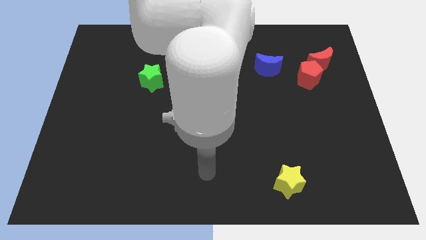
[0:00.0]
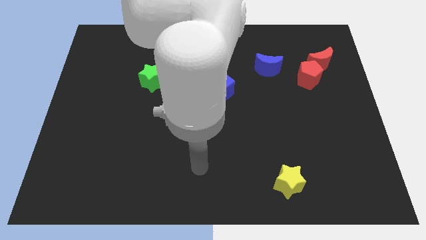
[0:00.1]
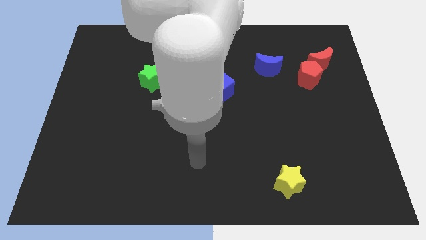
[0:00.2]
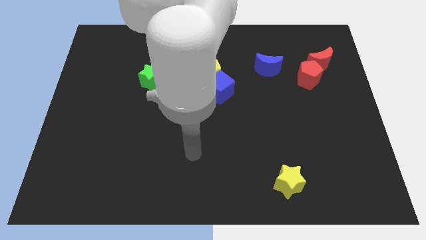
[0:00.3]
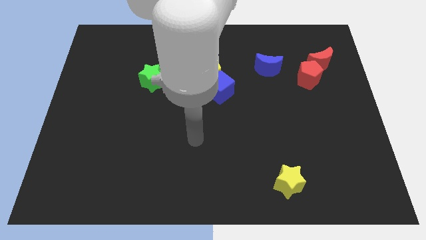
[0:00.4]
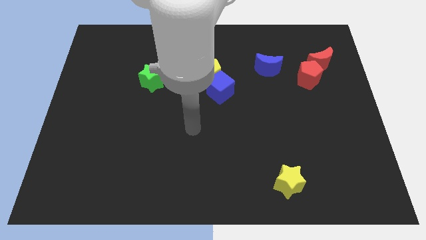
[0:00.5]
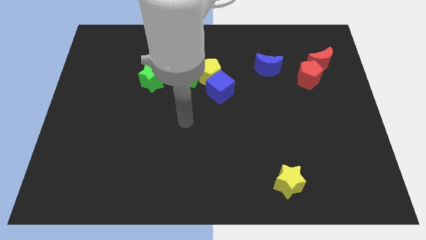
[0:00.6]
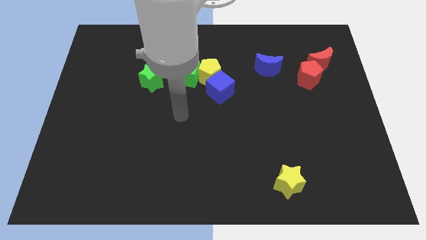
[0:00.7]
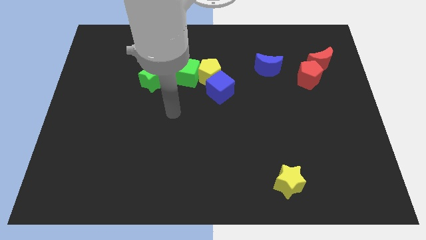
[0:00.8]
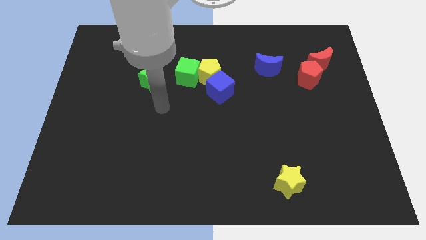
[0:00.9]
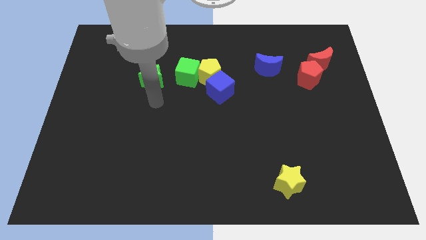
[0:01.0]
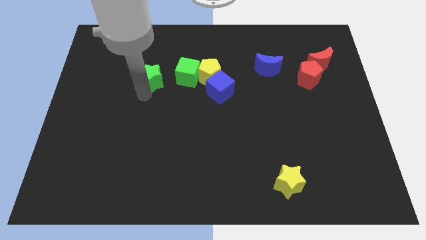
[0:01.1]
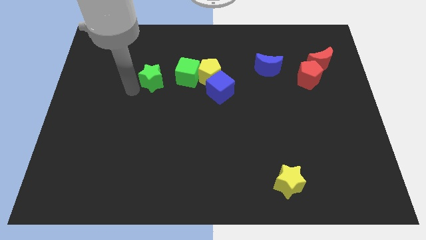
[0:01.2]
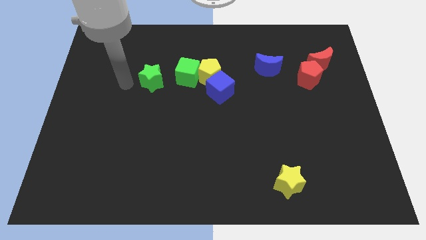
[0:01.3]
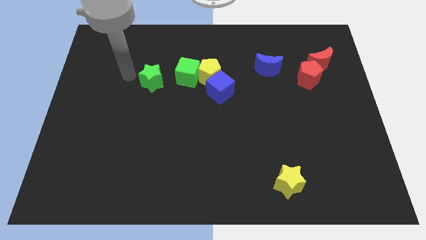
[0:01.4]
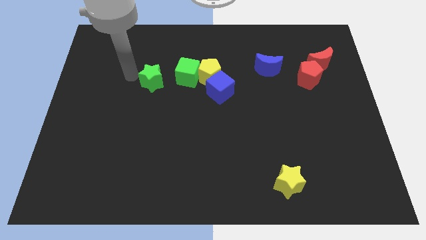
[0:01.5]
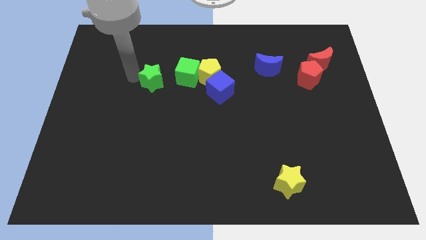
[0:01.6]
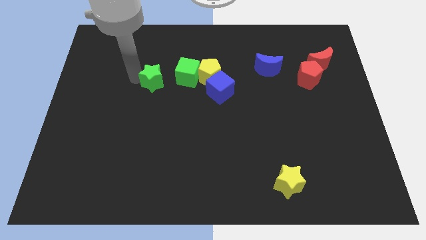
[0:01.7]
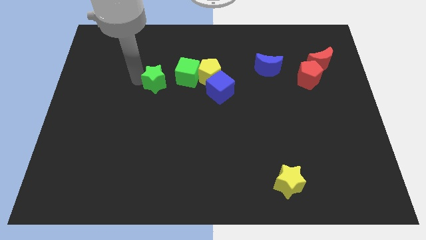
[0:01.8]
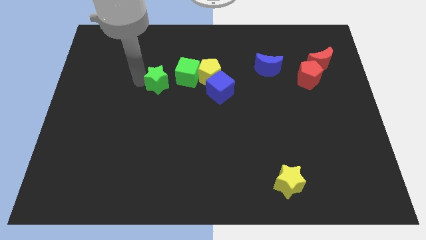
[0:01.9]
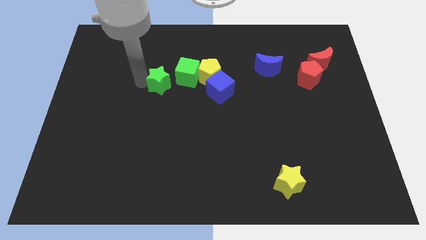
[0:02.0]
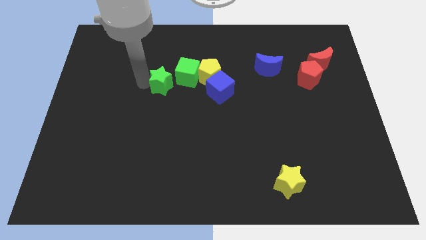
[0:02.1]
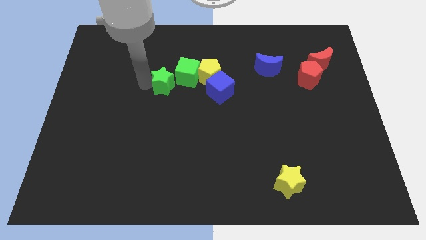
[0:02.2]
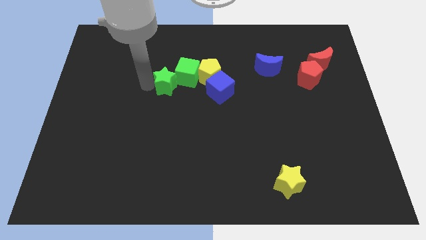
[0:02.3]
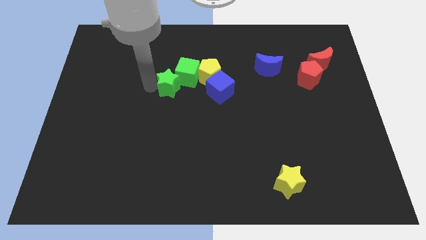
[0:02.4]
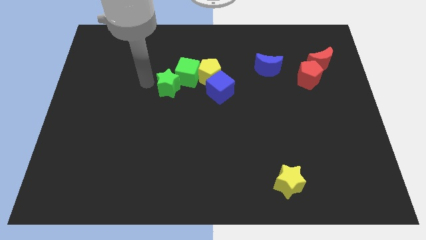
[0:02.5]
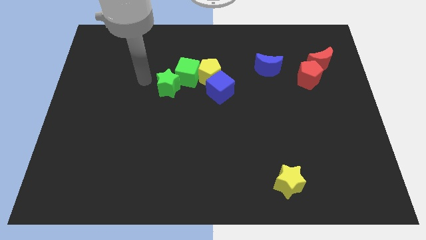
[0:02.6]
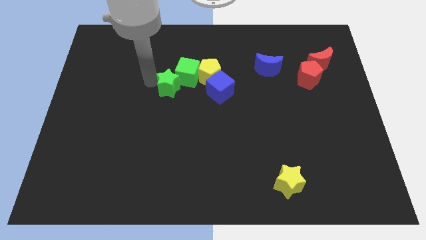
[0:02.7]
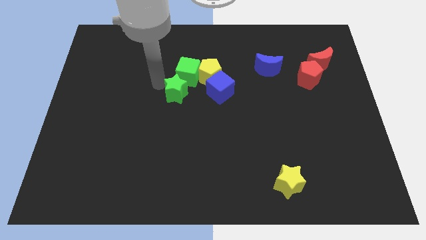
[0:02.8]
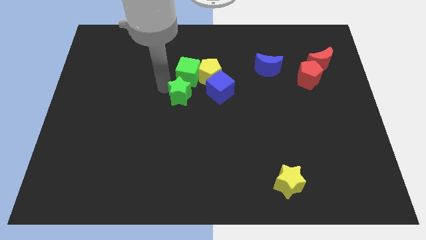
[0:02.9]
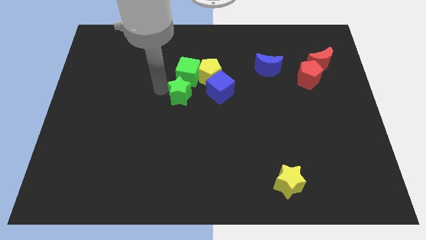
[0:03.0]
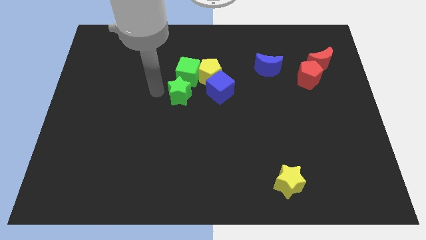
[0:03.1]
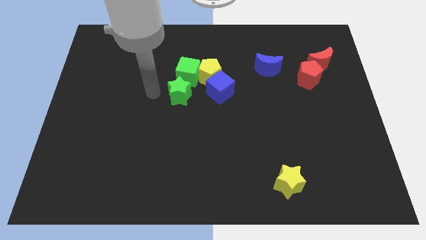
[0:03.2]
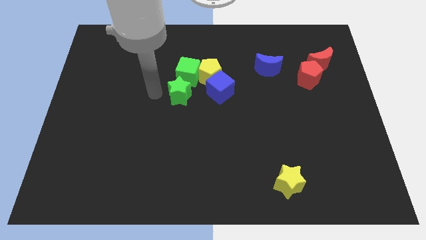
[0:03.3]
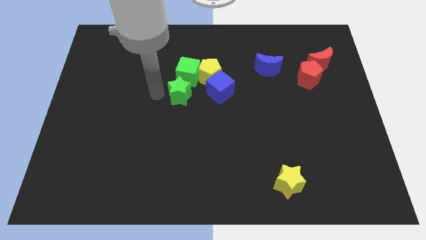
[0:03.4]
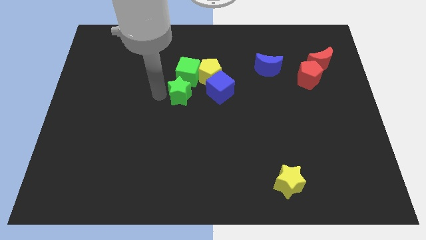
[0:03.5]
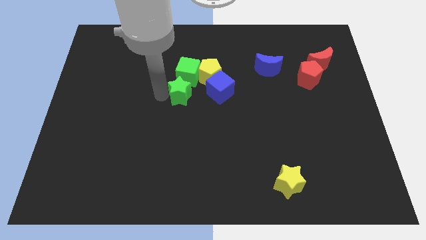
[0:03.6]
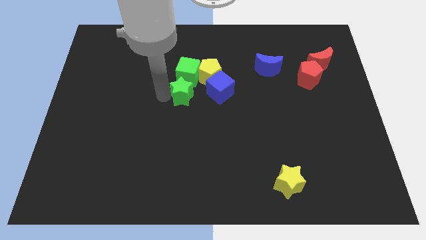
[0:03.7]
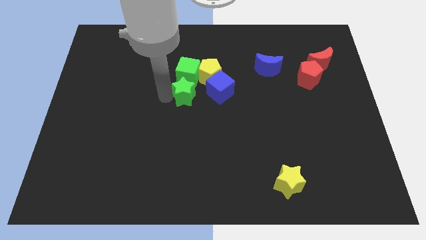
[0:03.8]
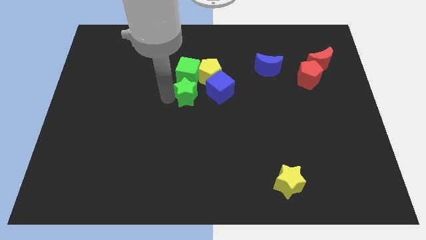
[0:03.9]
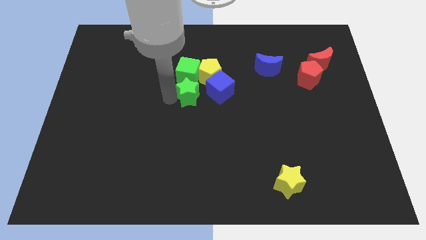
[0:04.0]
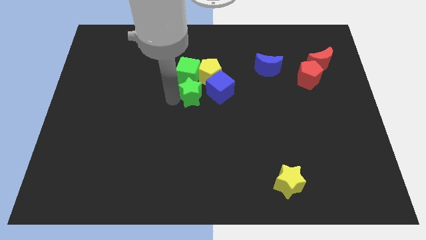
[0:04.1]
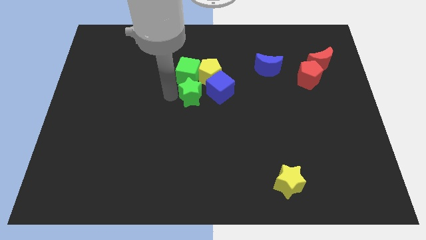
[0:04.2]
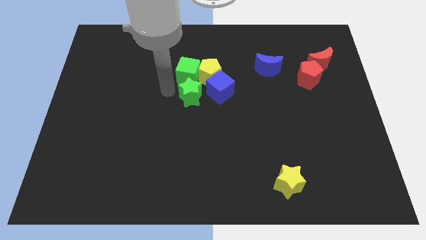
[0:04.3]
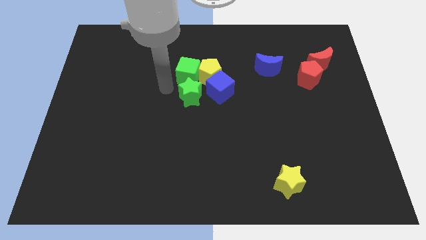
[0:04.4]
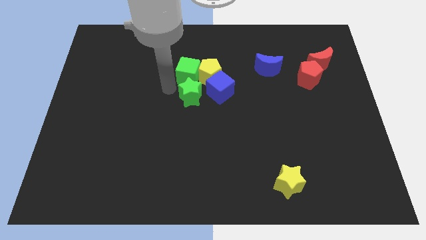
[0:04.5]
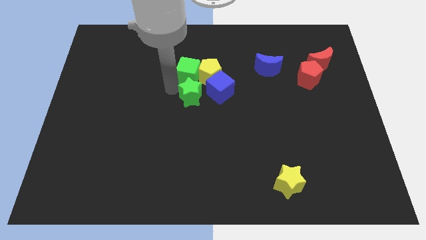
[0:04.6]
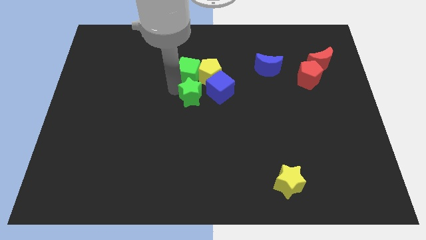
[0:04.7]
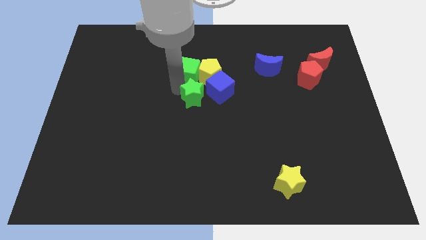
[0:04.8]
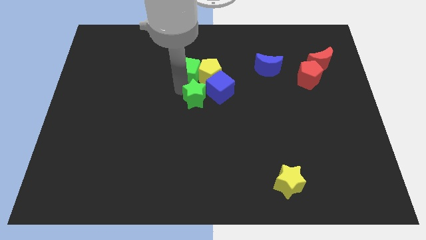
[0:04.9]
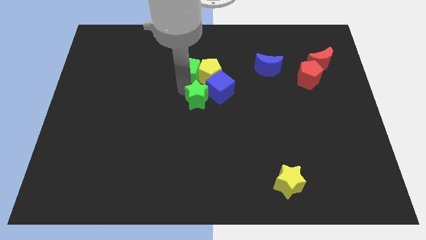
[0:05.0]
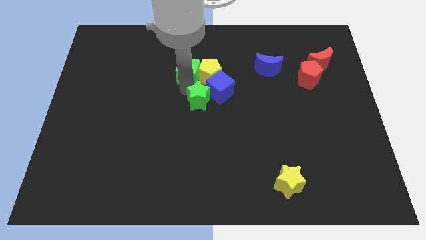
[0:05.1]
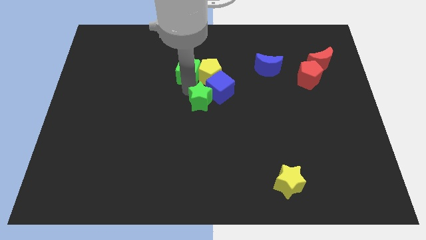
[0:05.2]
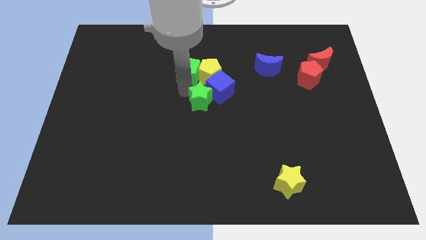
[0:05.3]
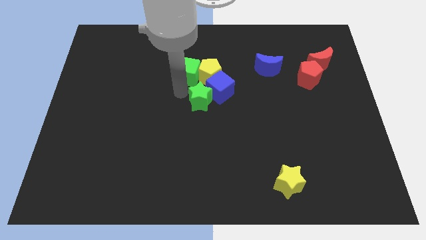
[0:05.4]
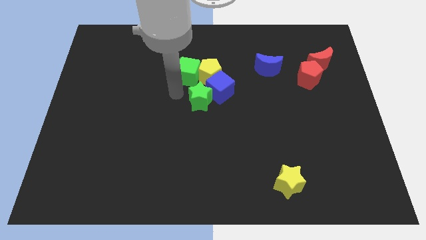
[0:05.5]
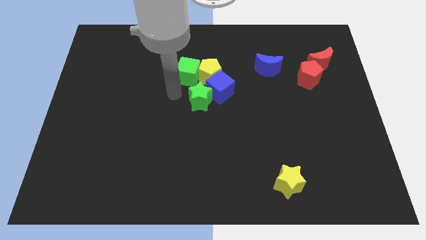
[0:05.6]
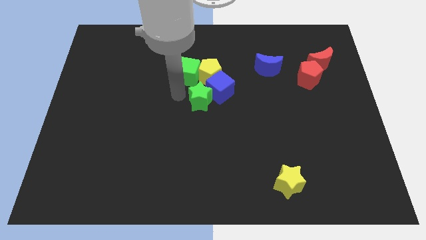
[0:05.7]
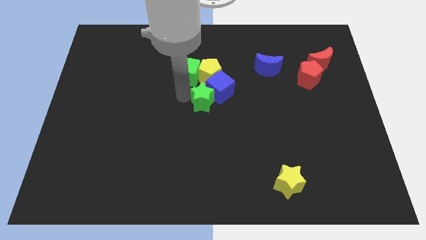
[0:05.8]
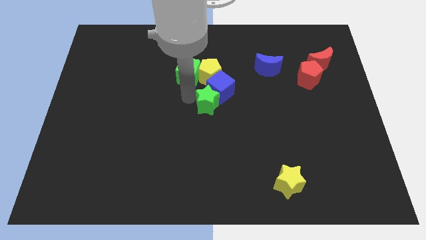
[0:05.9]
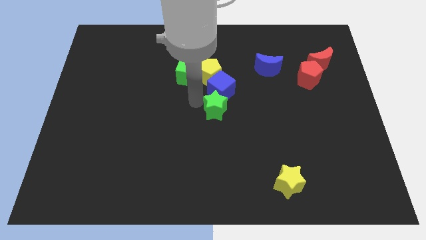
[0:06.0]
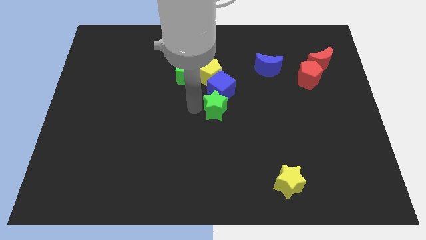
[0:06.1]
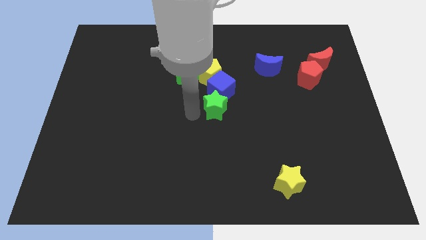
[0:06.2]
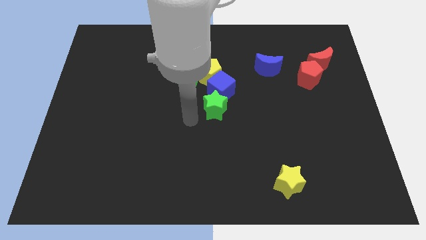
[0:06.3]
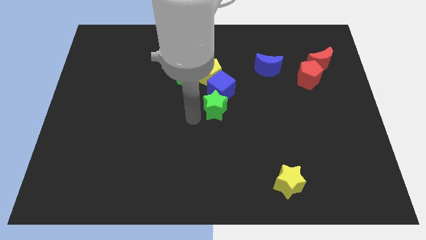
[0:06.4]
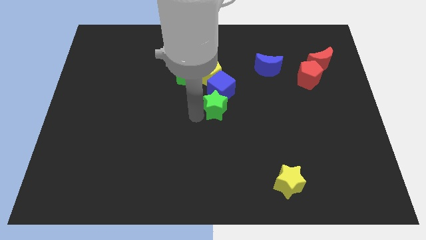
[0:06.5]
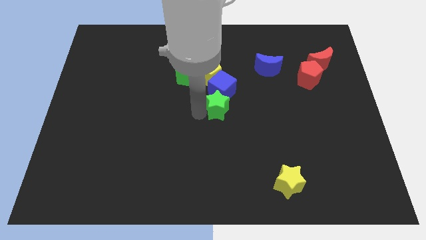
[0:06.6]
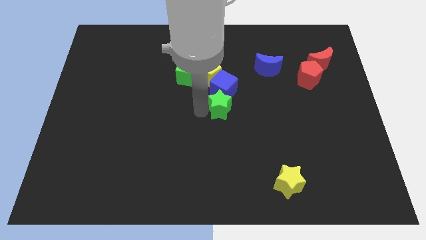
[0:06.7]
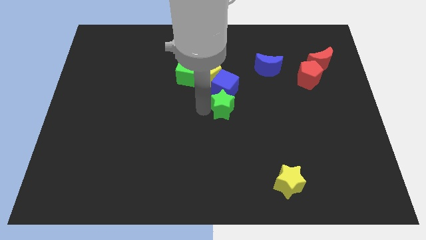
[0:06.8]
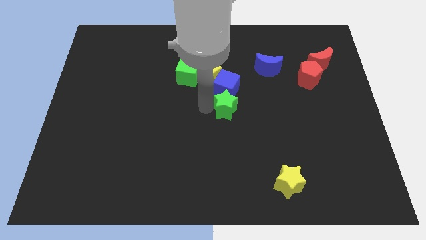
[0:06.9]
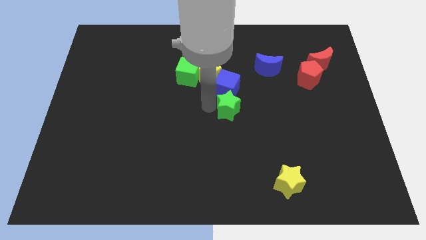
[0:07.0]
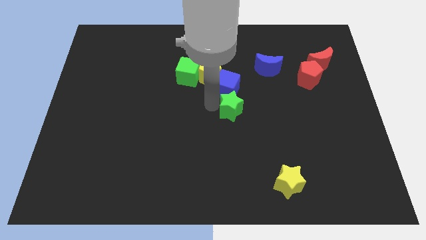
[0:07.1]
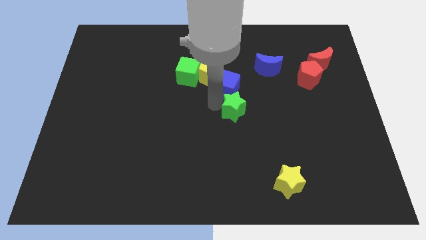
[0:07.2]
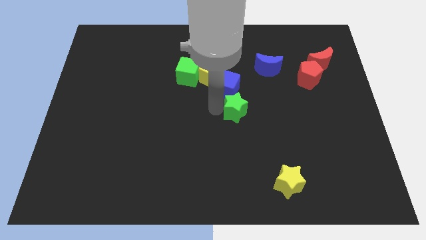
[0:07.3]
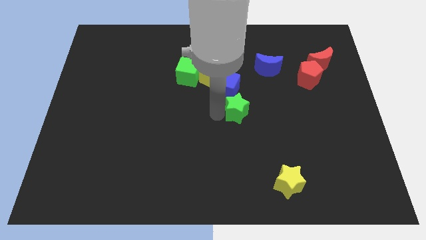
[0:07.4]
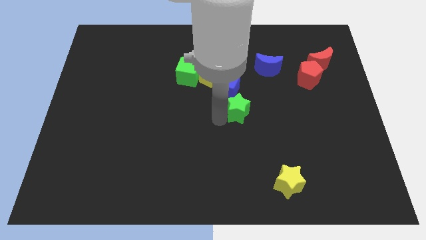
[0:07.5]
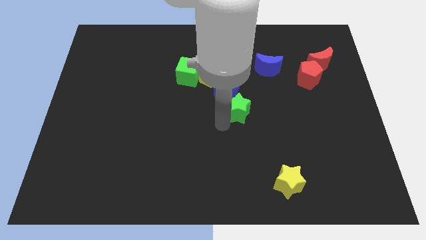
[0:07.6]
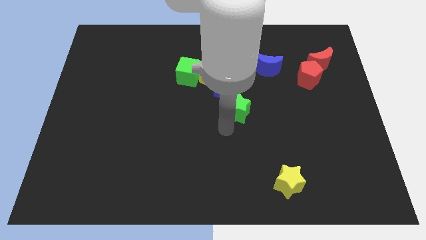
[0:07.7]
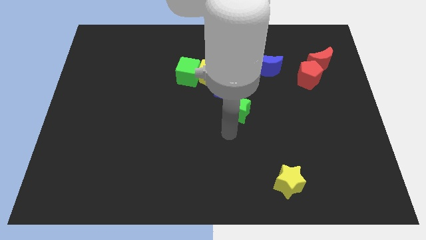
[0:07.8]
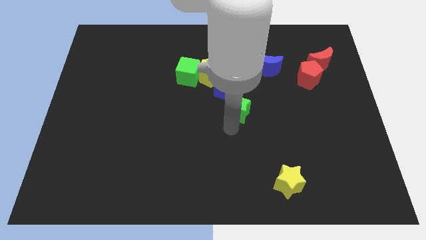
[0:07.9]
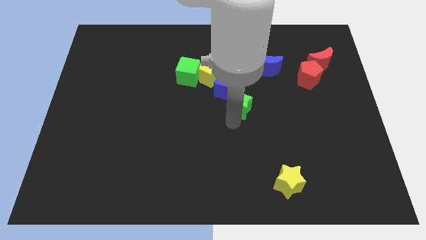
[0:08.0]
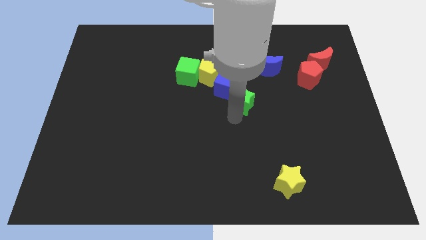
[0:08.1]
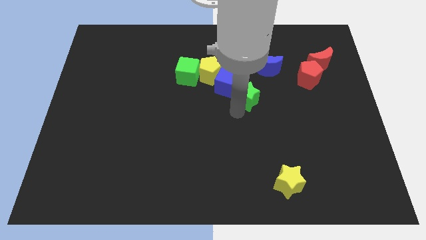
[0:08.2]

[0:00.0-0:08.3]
move the green star to the bottom left of the blue moon
